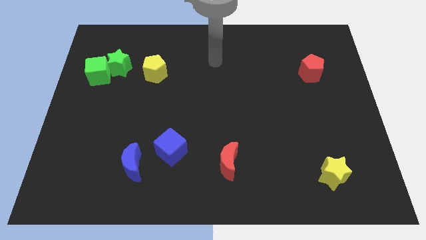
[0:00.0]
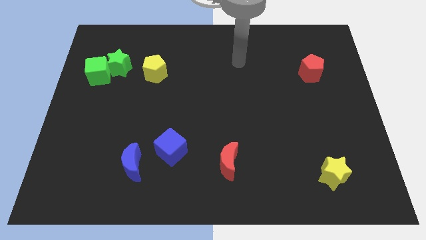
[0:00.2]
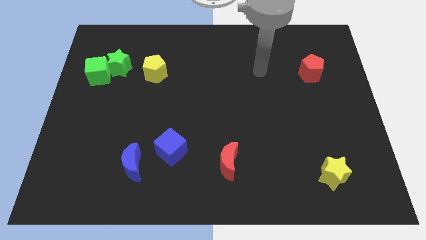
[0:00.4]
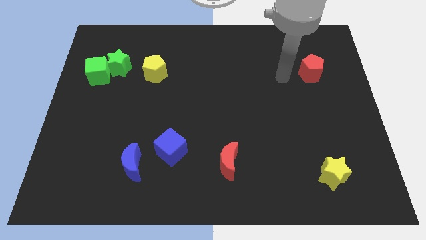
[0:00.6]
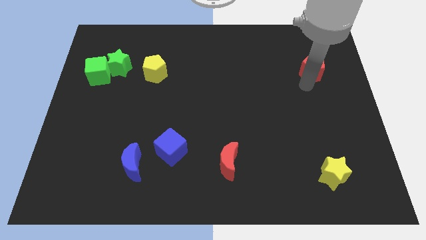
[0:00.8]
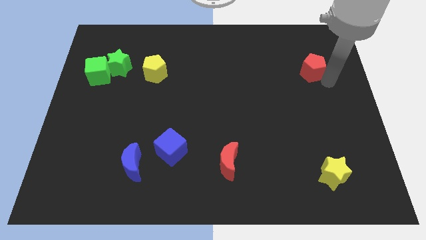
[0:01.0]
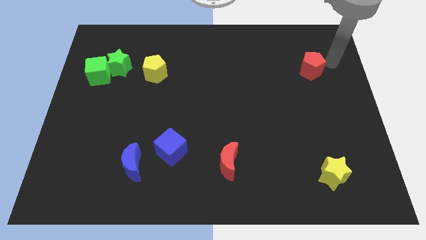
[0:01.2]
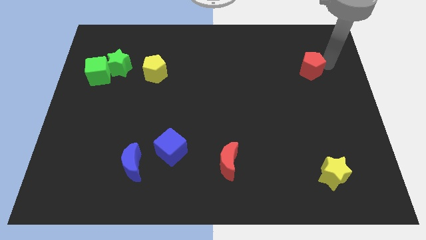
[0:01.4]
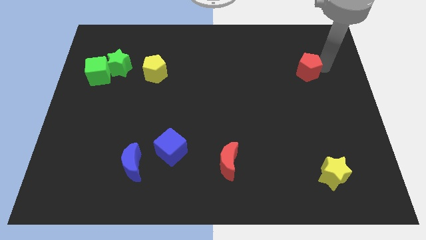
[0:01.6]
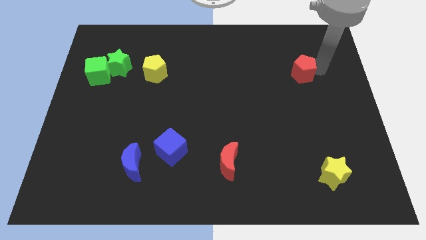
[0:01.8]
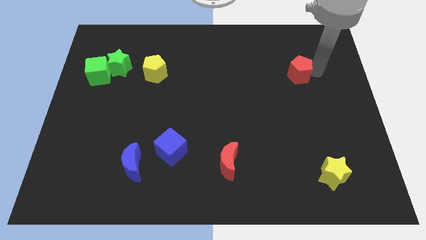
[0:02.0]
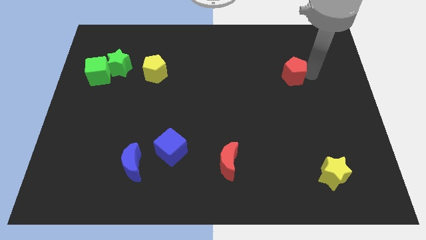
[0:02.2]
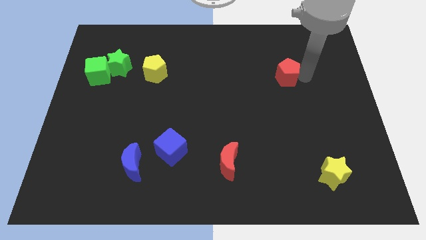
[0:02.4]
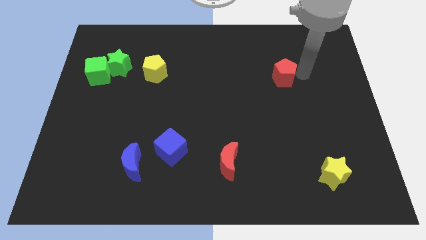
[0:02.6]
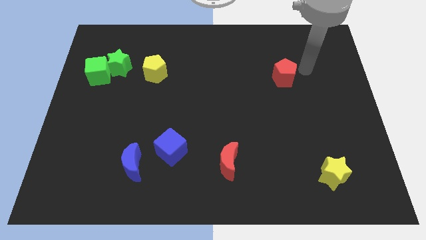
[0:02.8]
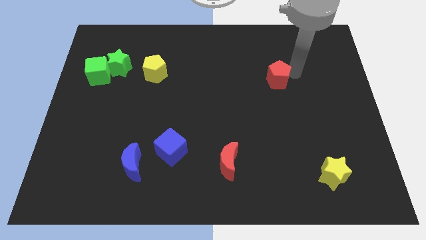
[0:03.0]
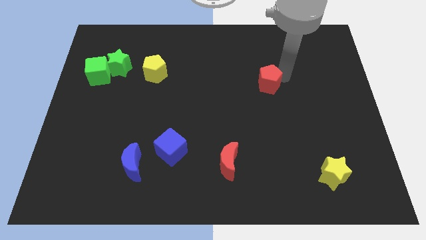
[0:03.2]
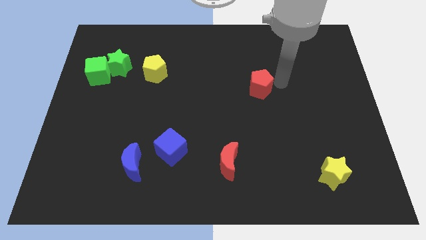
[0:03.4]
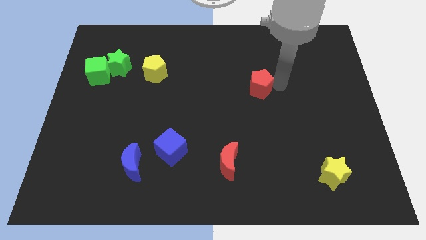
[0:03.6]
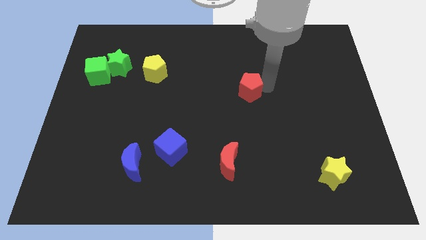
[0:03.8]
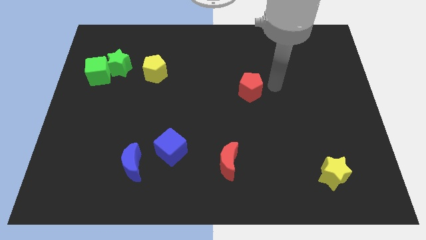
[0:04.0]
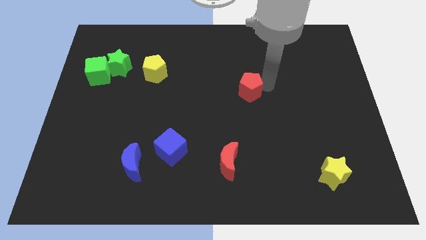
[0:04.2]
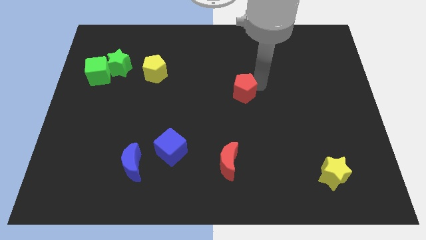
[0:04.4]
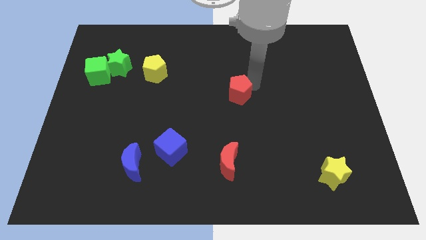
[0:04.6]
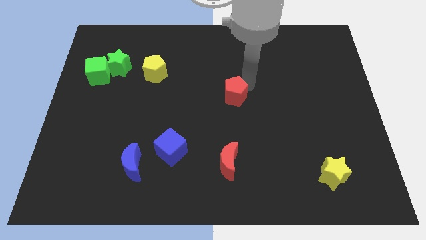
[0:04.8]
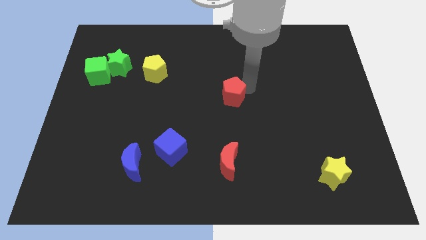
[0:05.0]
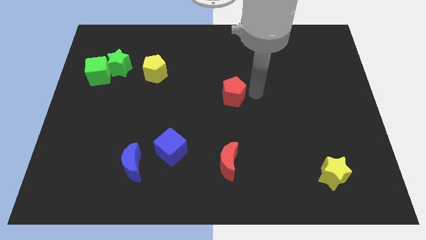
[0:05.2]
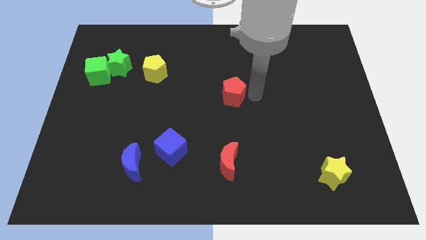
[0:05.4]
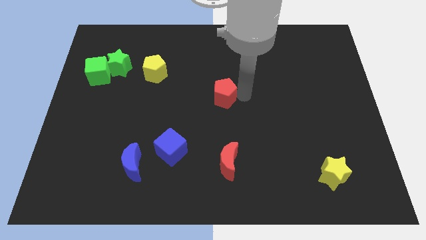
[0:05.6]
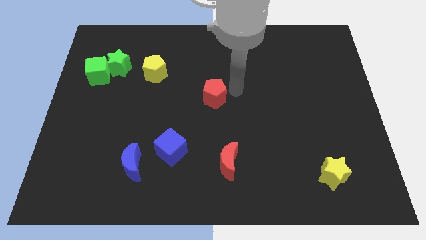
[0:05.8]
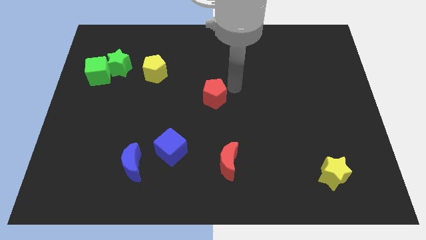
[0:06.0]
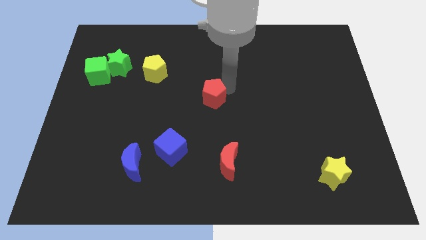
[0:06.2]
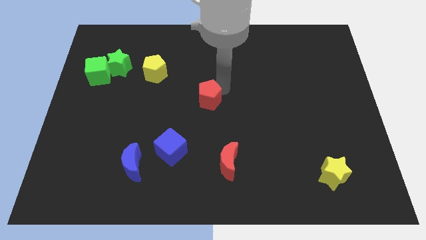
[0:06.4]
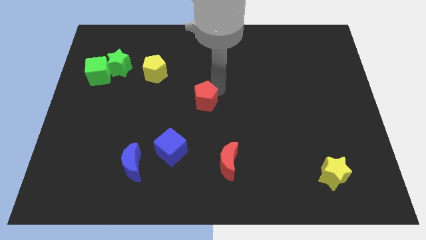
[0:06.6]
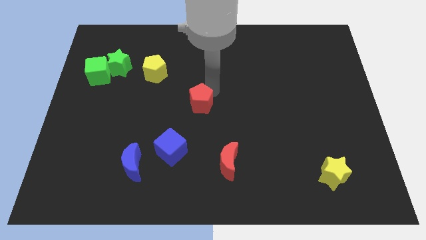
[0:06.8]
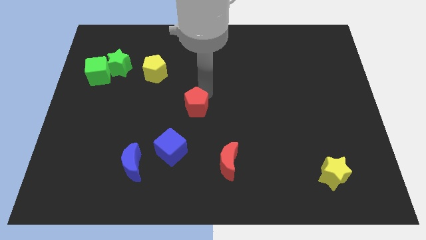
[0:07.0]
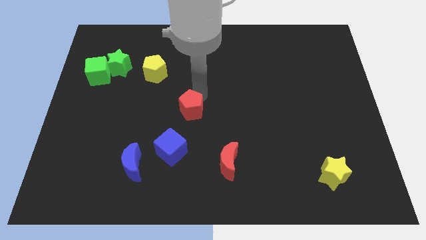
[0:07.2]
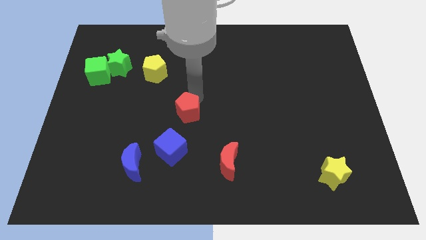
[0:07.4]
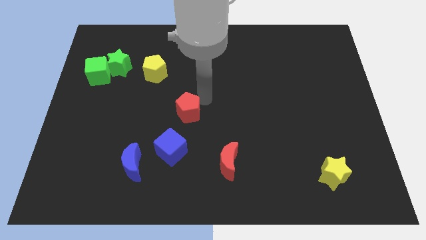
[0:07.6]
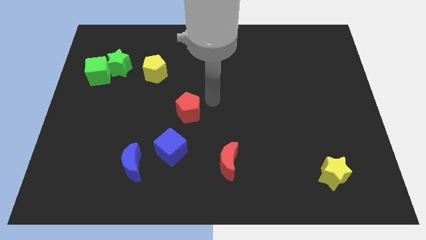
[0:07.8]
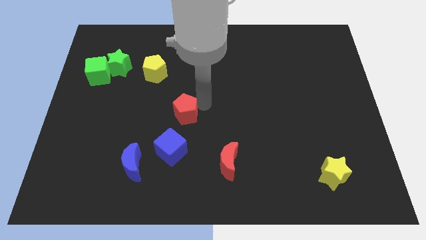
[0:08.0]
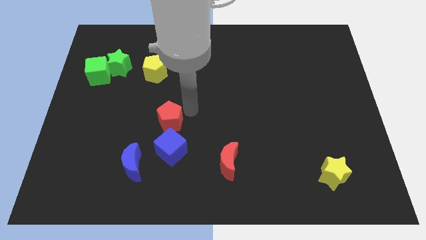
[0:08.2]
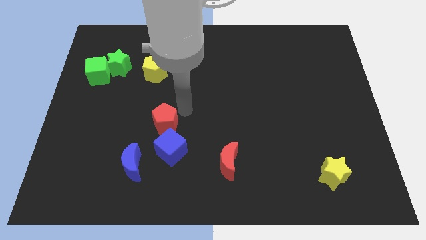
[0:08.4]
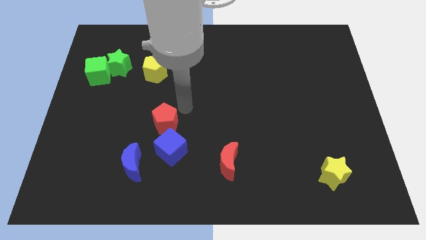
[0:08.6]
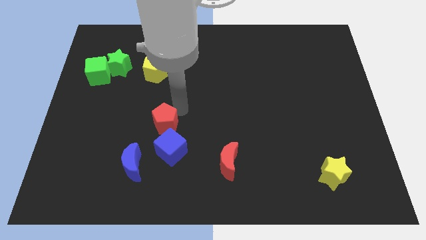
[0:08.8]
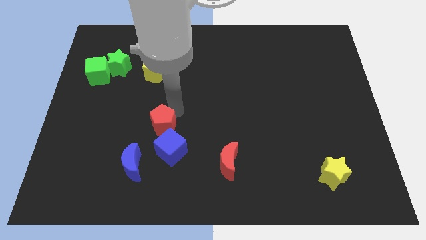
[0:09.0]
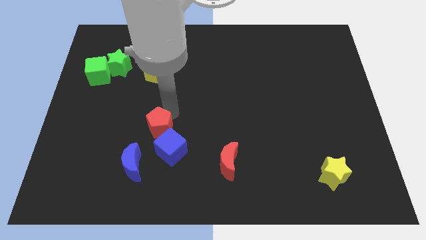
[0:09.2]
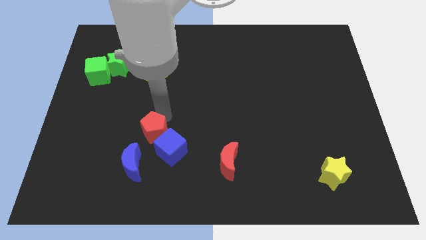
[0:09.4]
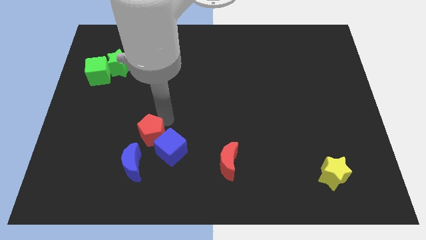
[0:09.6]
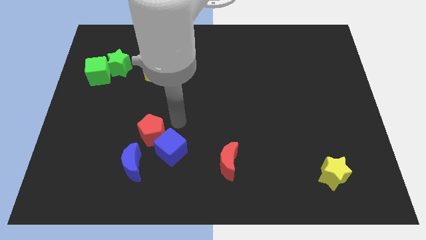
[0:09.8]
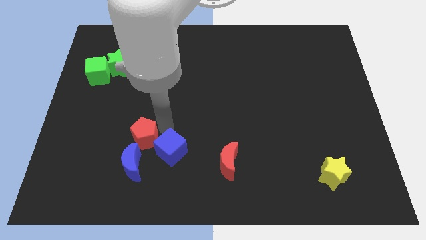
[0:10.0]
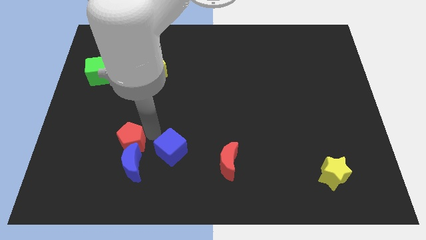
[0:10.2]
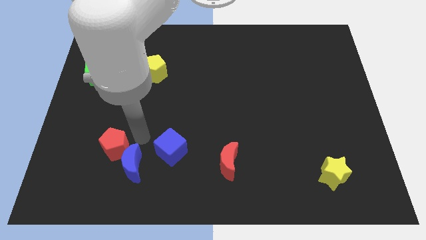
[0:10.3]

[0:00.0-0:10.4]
move the red pentagon just left of the blue moon

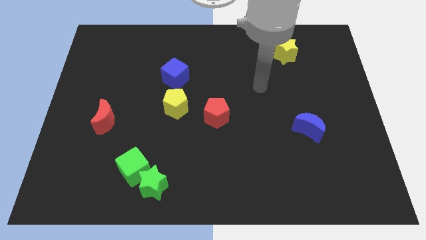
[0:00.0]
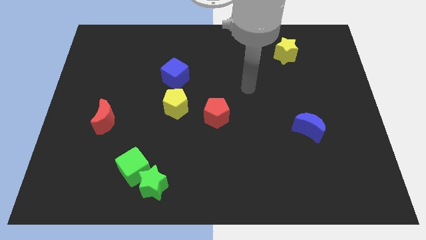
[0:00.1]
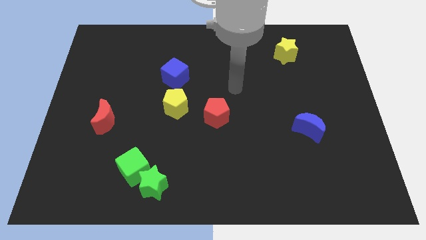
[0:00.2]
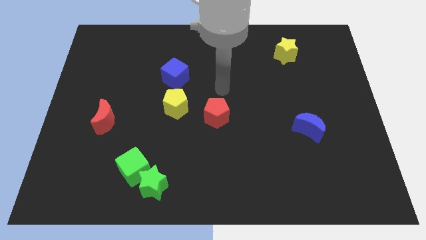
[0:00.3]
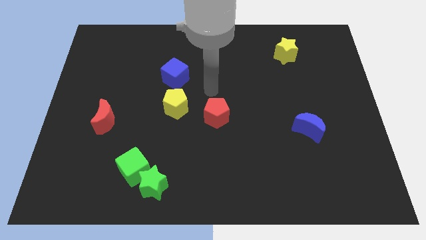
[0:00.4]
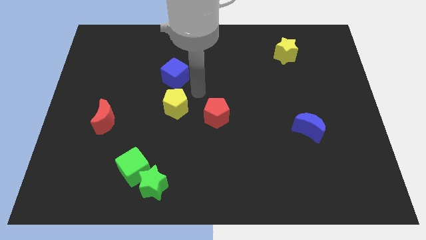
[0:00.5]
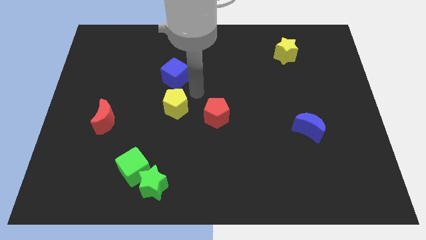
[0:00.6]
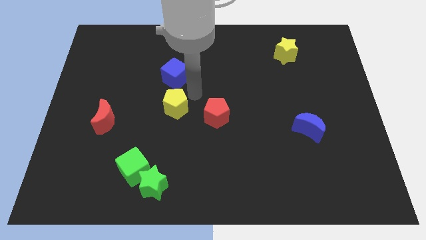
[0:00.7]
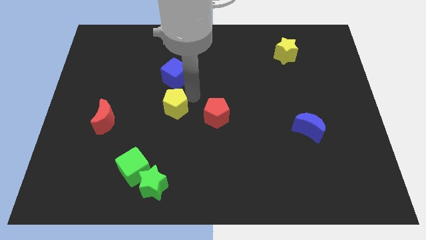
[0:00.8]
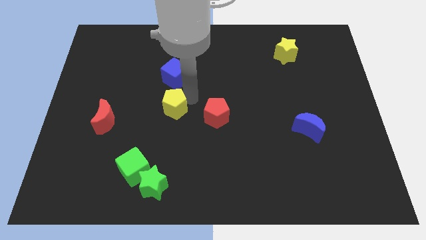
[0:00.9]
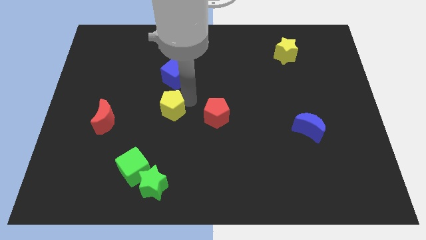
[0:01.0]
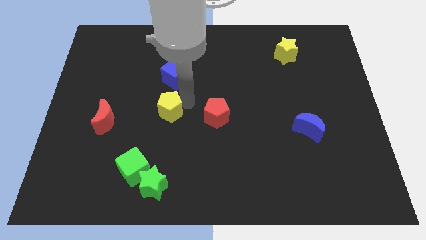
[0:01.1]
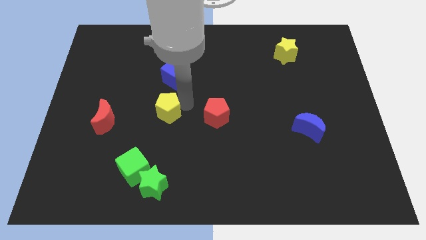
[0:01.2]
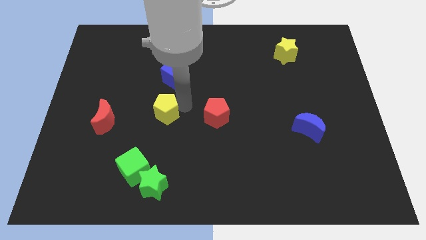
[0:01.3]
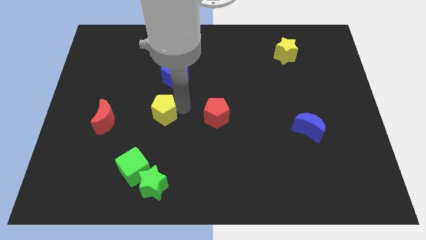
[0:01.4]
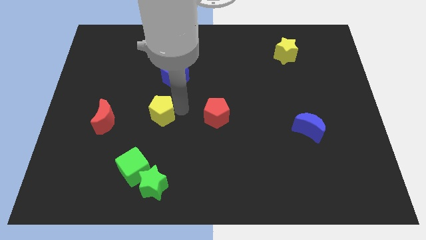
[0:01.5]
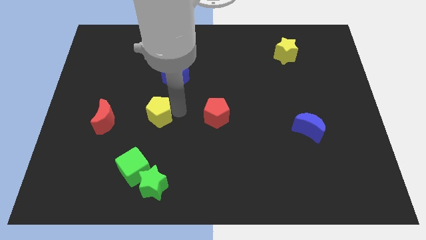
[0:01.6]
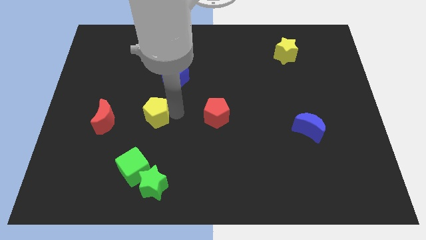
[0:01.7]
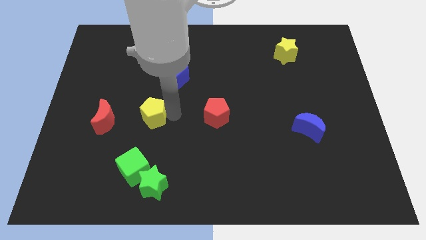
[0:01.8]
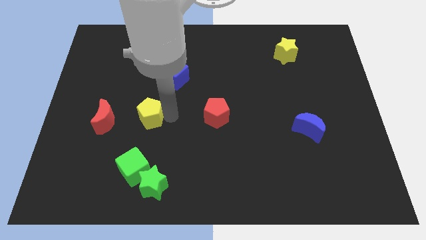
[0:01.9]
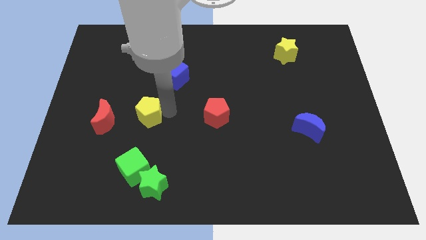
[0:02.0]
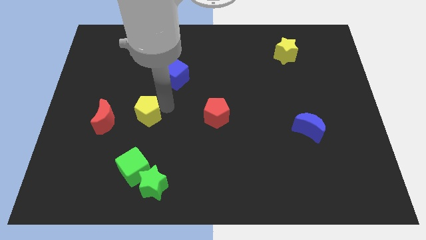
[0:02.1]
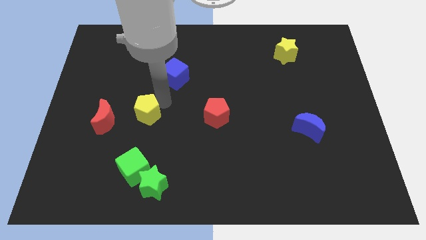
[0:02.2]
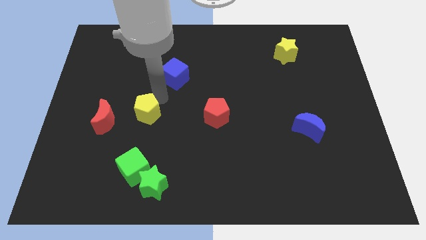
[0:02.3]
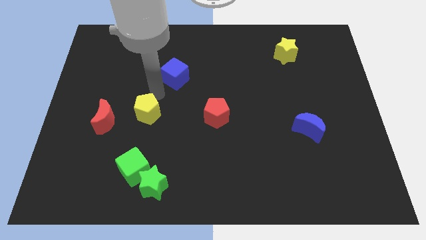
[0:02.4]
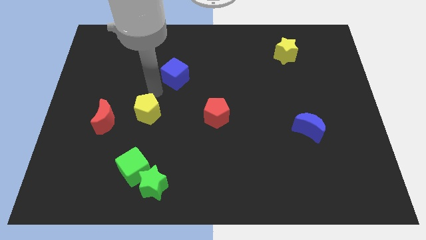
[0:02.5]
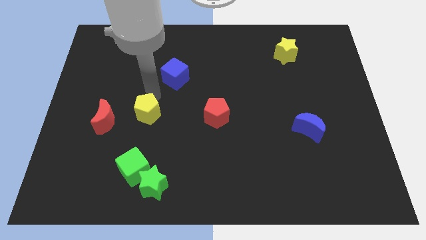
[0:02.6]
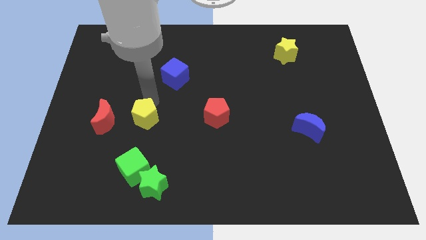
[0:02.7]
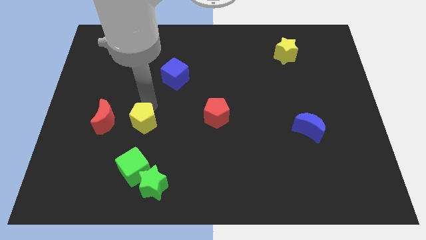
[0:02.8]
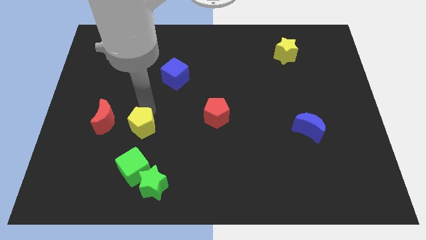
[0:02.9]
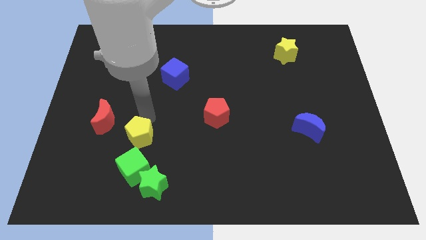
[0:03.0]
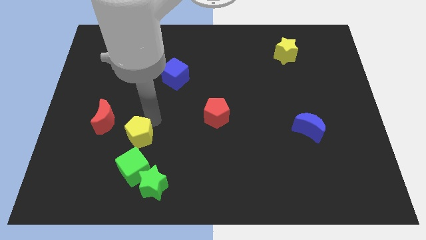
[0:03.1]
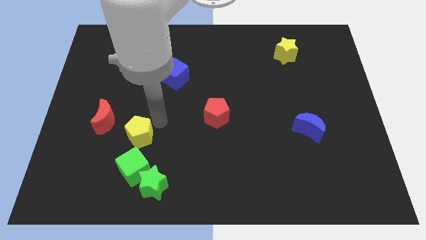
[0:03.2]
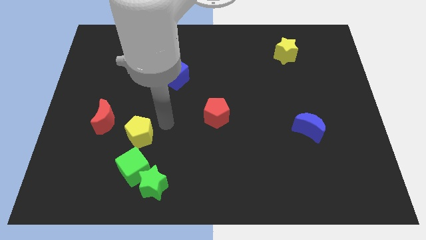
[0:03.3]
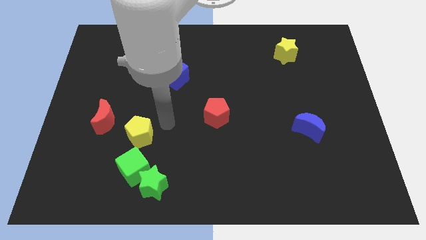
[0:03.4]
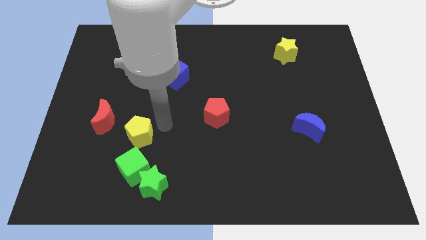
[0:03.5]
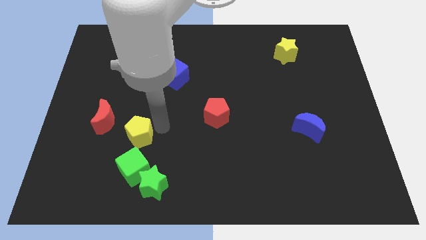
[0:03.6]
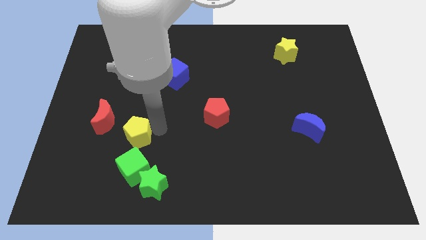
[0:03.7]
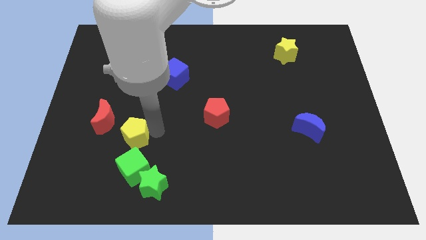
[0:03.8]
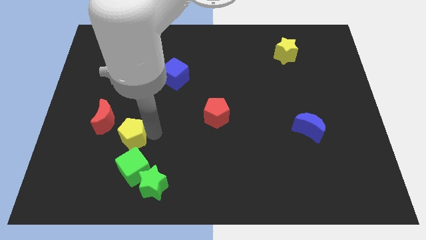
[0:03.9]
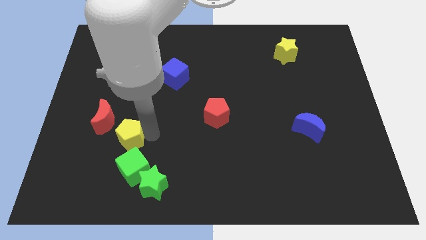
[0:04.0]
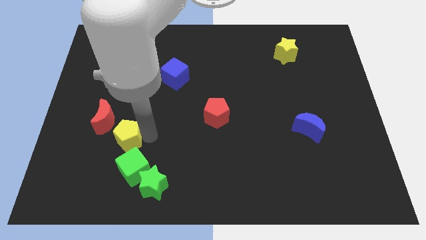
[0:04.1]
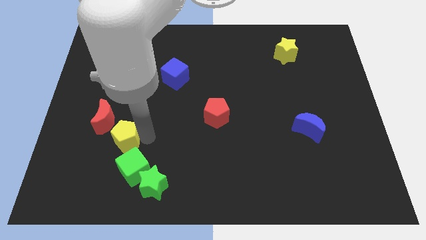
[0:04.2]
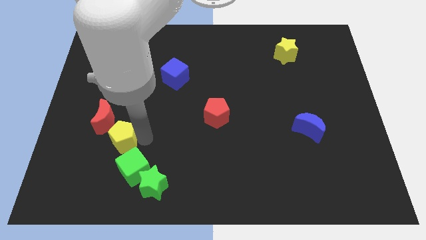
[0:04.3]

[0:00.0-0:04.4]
push the yellow pentagon to the bottom of the red moon
